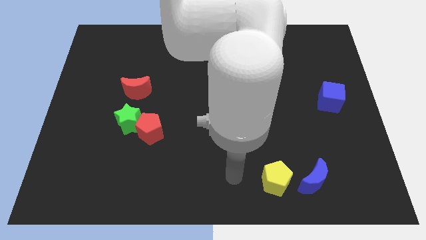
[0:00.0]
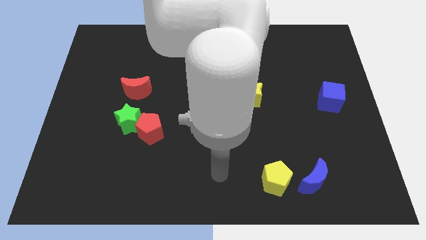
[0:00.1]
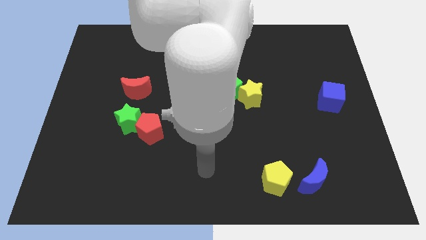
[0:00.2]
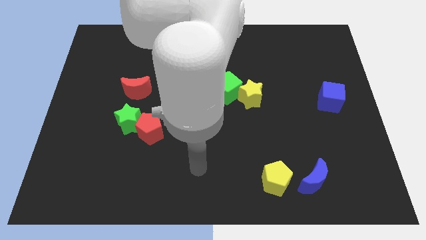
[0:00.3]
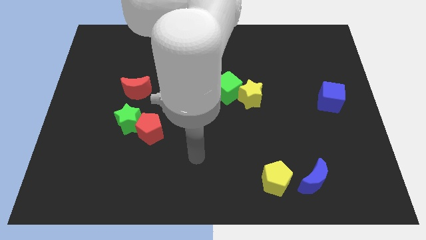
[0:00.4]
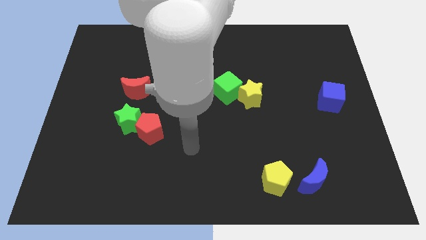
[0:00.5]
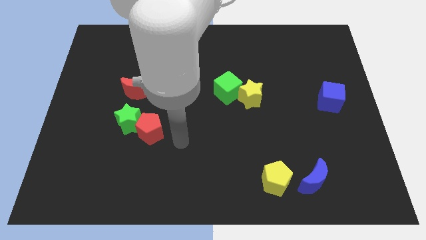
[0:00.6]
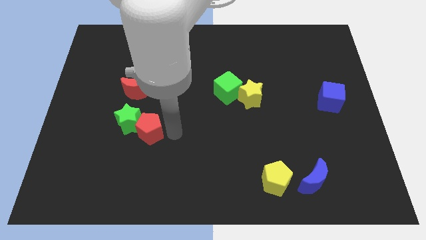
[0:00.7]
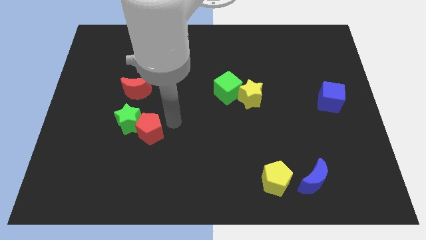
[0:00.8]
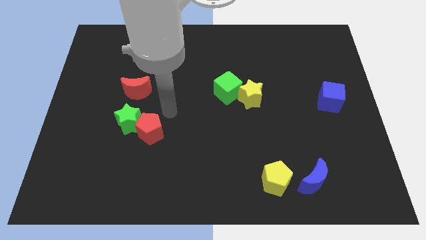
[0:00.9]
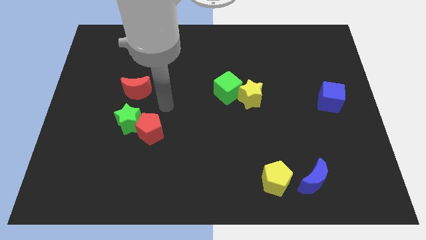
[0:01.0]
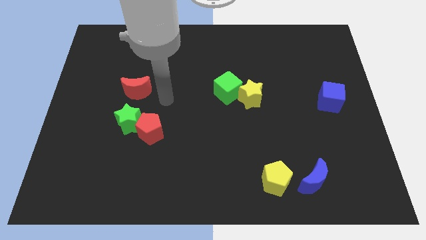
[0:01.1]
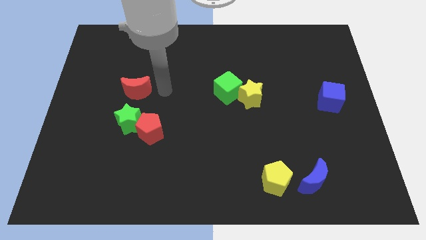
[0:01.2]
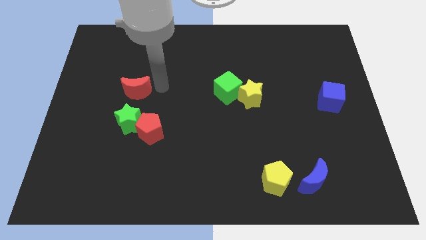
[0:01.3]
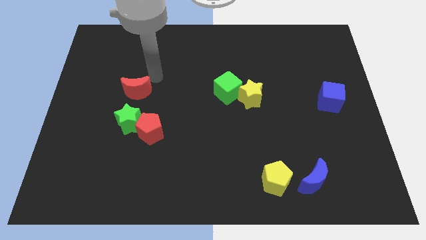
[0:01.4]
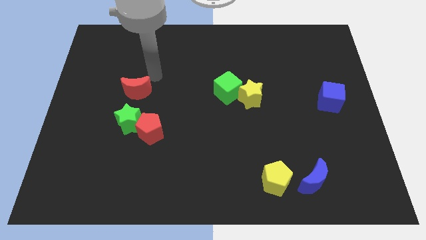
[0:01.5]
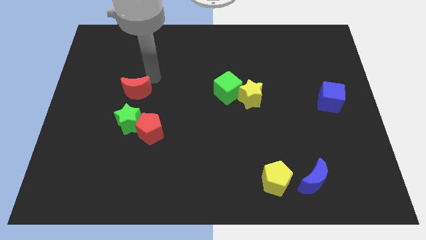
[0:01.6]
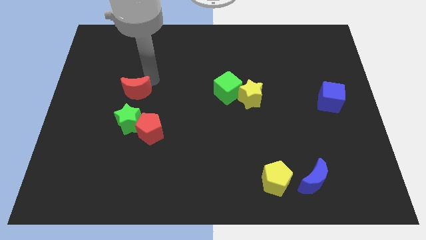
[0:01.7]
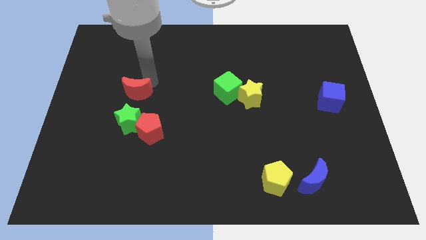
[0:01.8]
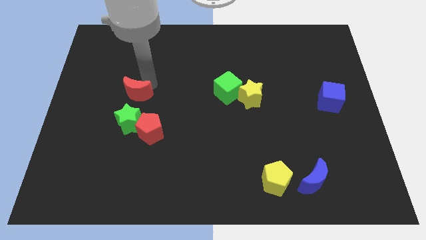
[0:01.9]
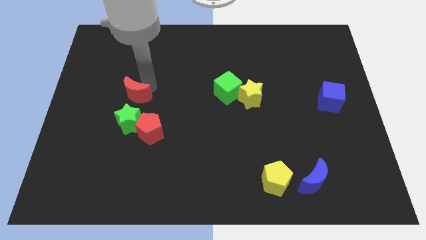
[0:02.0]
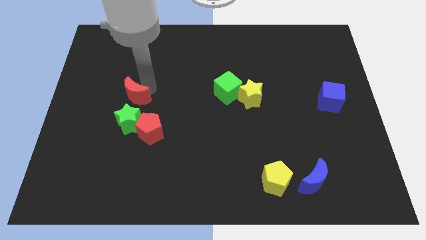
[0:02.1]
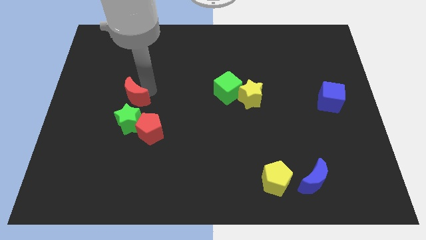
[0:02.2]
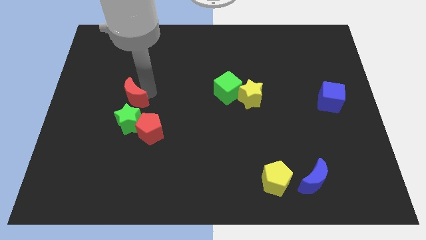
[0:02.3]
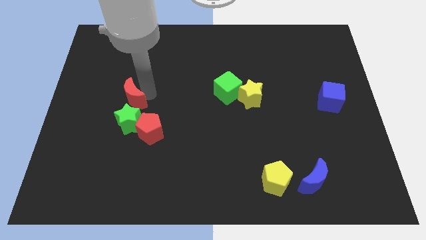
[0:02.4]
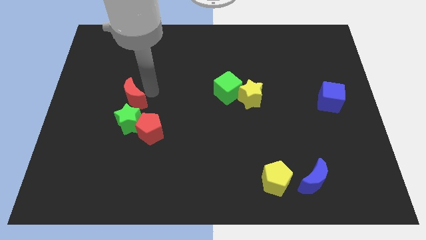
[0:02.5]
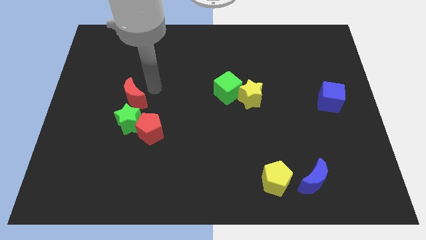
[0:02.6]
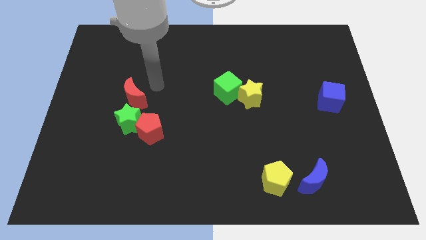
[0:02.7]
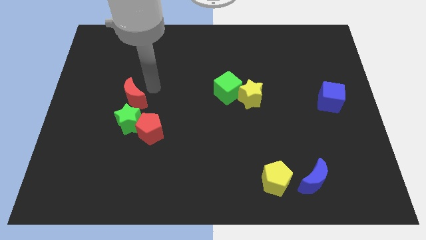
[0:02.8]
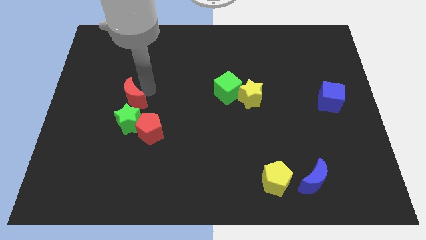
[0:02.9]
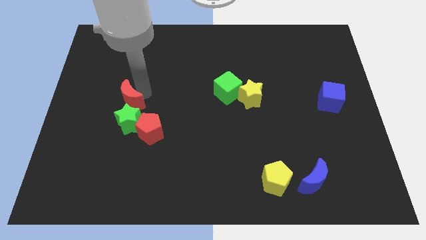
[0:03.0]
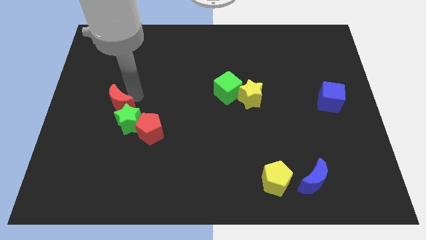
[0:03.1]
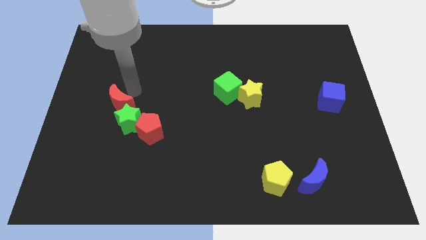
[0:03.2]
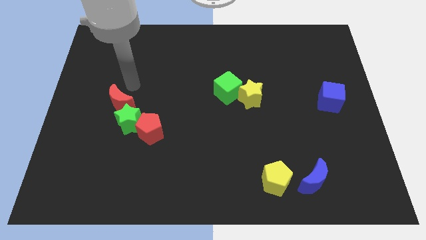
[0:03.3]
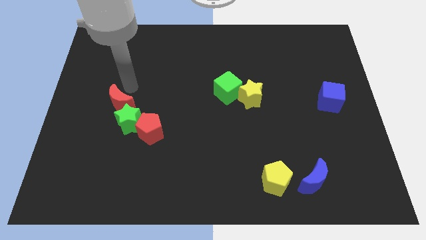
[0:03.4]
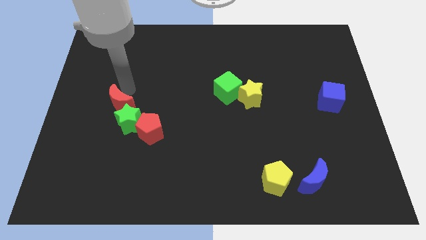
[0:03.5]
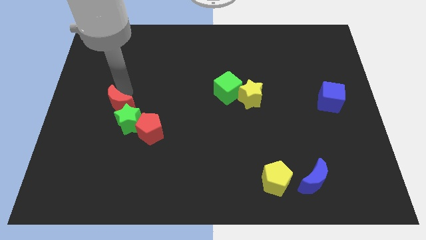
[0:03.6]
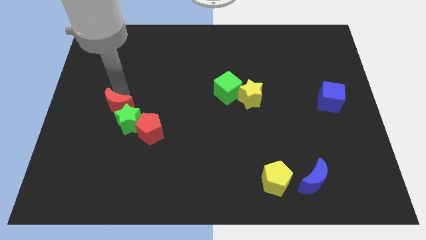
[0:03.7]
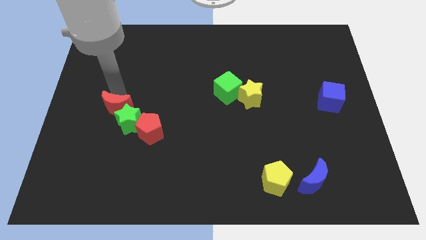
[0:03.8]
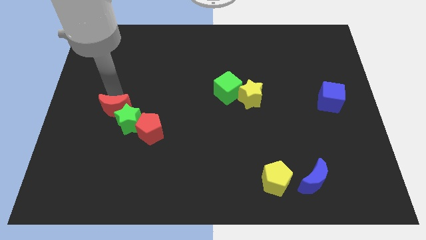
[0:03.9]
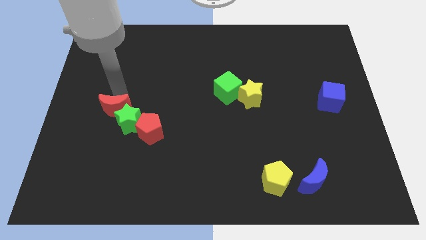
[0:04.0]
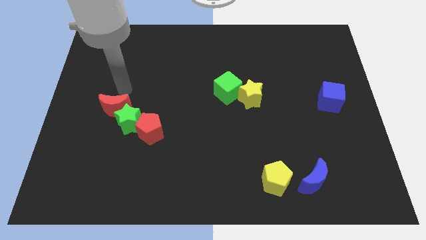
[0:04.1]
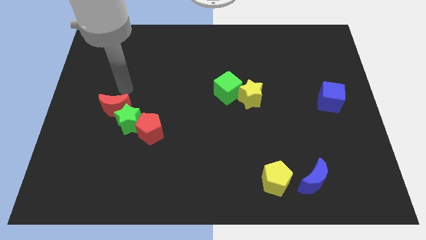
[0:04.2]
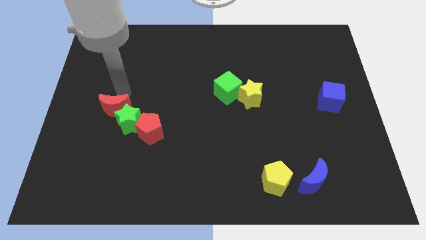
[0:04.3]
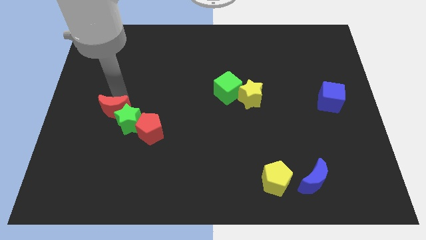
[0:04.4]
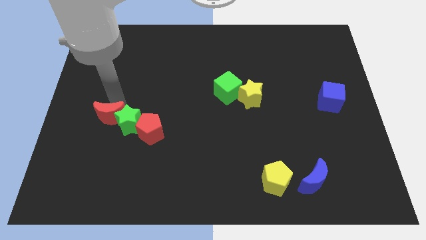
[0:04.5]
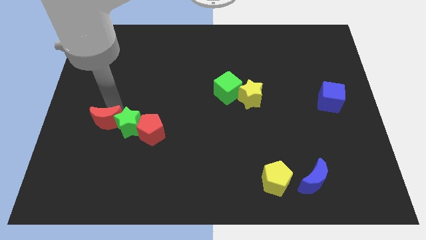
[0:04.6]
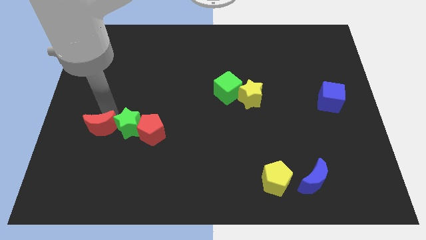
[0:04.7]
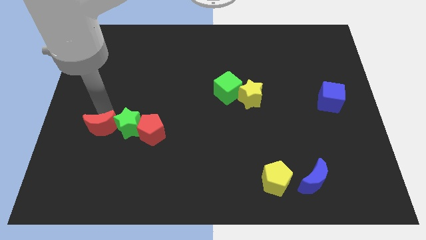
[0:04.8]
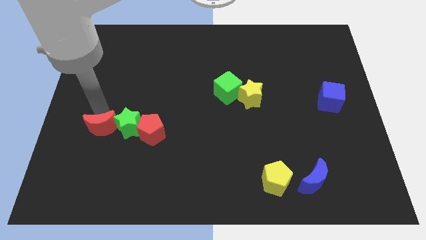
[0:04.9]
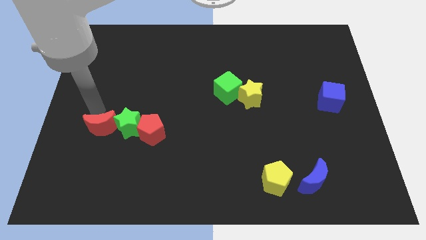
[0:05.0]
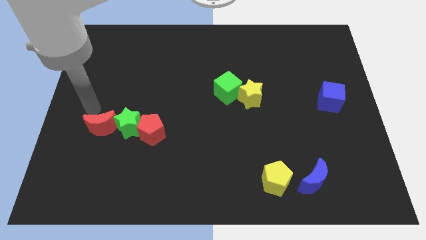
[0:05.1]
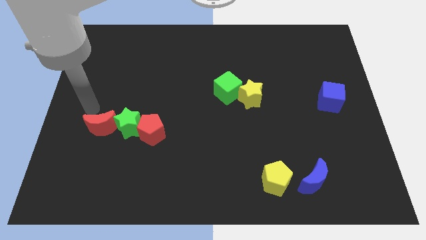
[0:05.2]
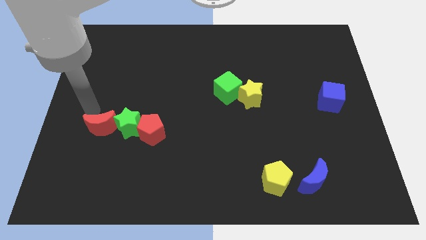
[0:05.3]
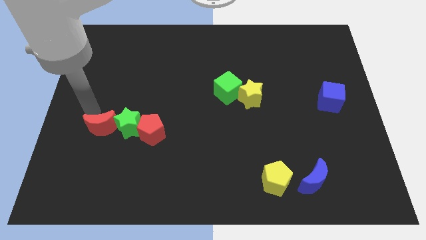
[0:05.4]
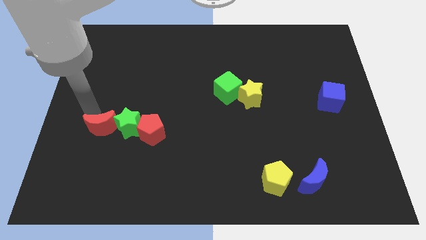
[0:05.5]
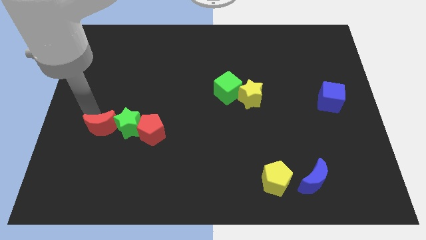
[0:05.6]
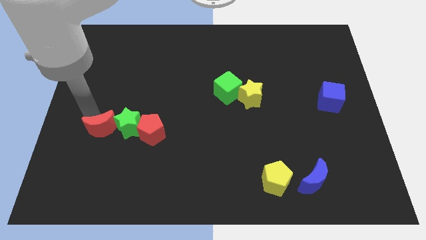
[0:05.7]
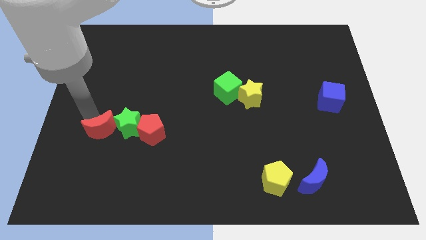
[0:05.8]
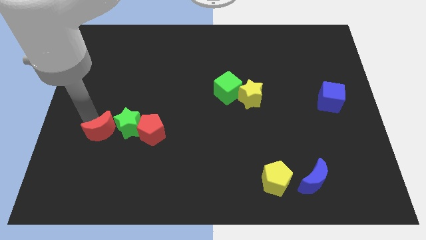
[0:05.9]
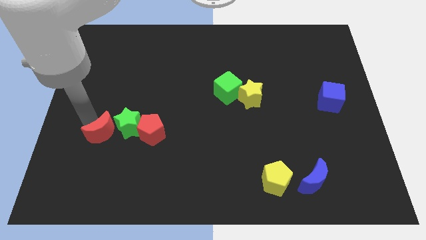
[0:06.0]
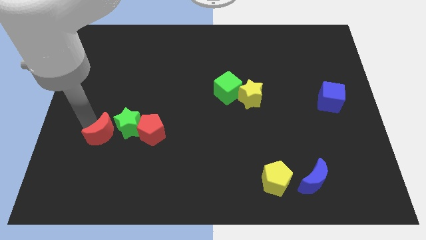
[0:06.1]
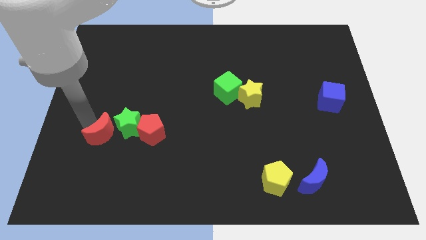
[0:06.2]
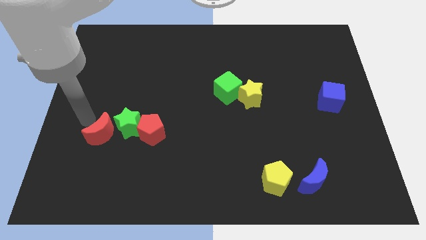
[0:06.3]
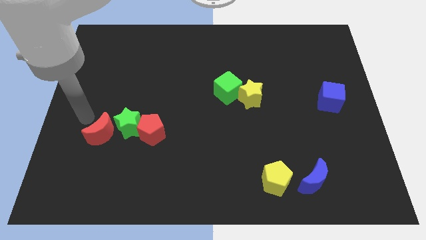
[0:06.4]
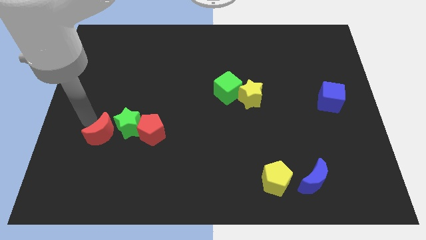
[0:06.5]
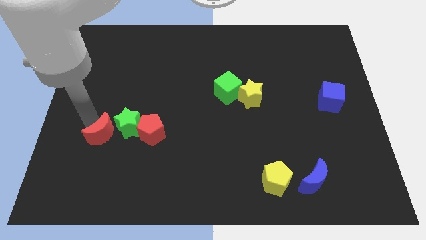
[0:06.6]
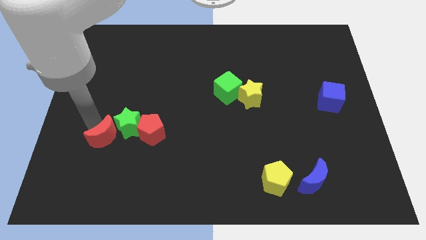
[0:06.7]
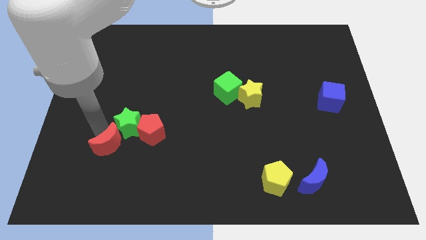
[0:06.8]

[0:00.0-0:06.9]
put the red moon below the green star

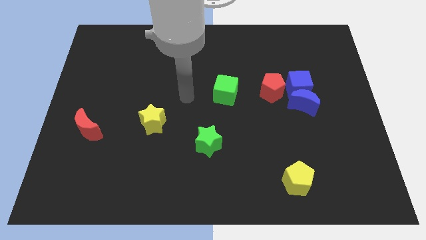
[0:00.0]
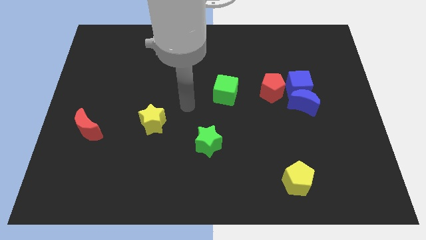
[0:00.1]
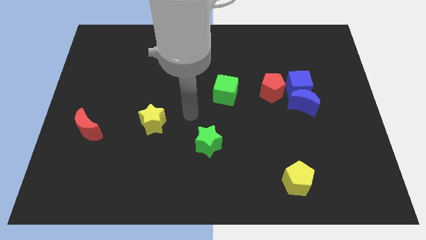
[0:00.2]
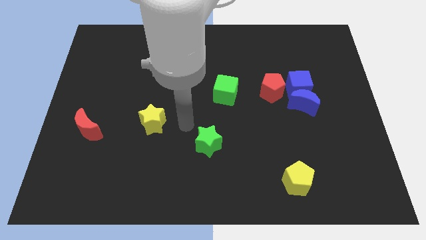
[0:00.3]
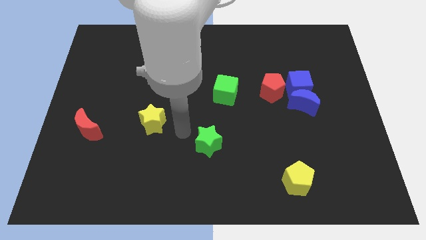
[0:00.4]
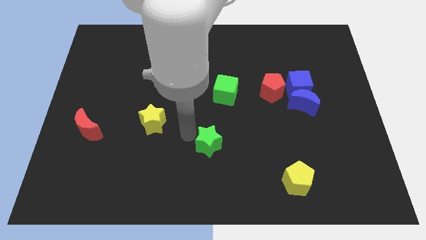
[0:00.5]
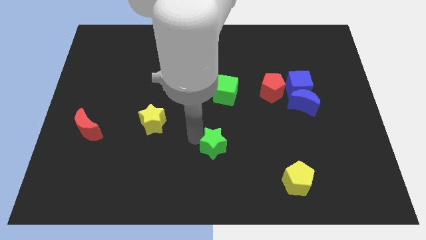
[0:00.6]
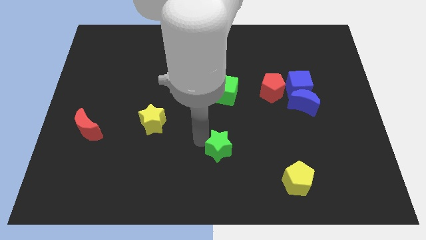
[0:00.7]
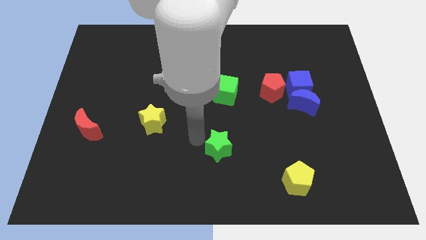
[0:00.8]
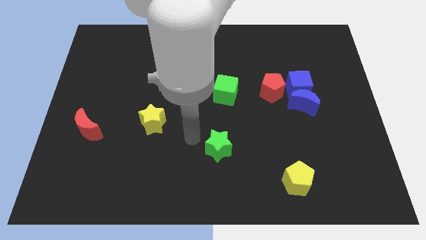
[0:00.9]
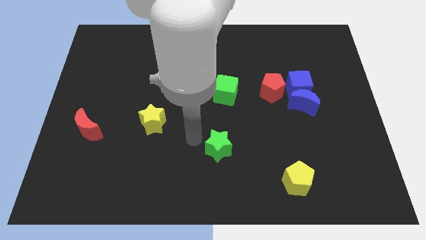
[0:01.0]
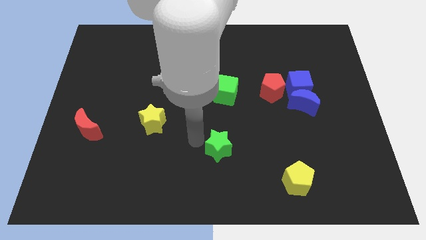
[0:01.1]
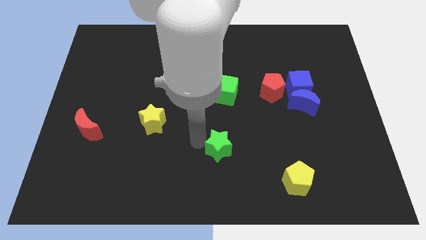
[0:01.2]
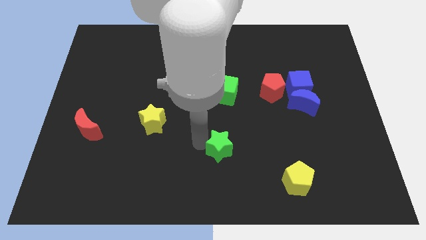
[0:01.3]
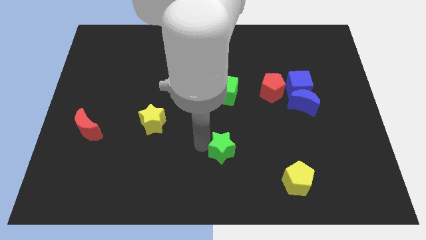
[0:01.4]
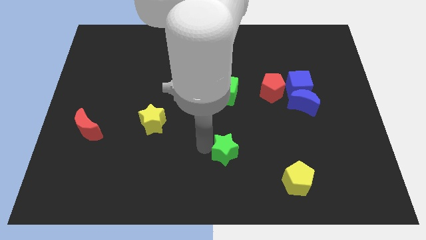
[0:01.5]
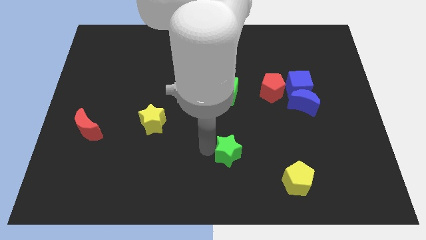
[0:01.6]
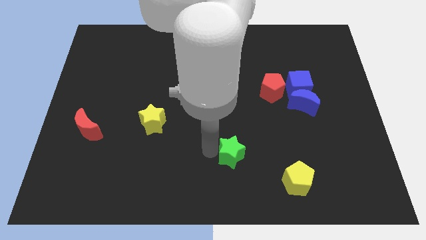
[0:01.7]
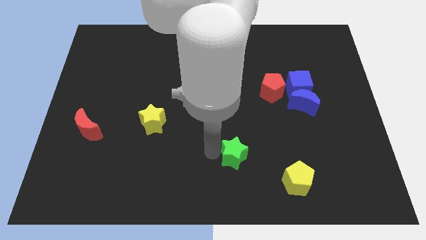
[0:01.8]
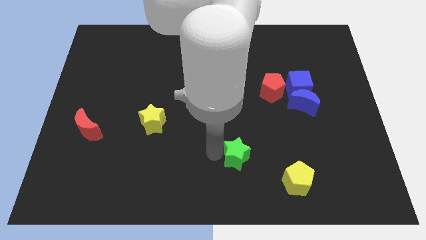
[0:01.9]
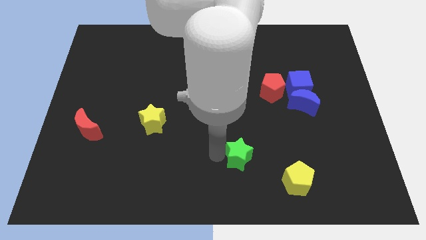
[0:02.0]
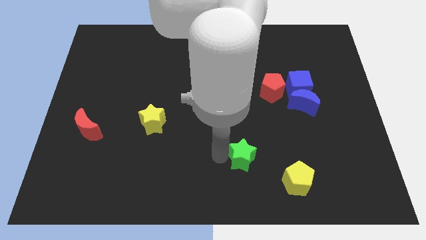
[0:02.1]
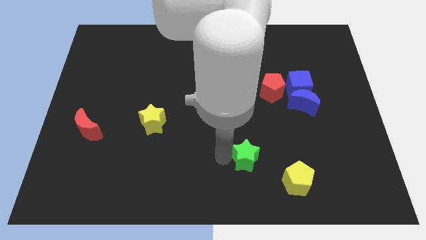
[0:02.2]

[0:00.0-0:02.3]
move the green star to the top left side of the yellow pentagon
